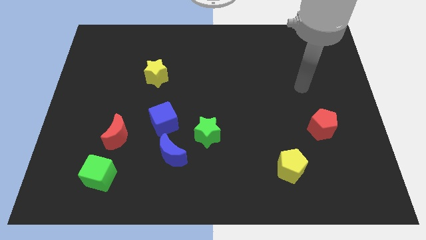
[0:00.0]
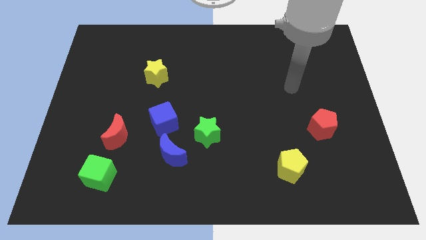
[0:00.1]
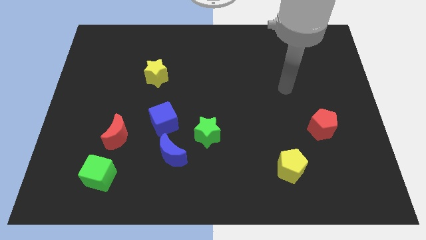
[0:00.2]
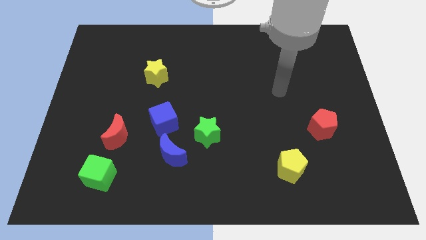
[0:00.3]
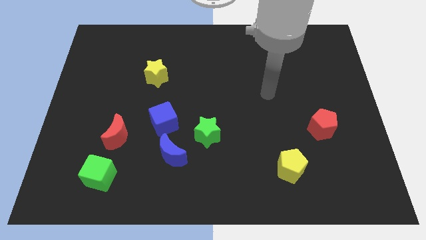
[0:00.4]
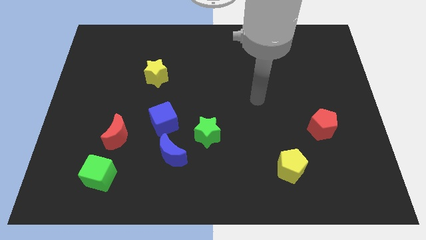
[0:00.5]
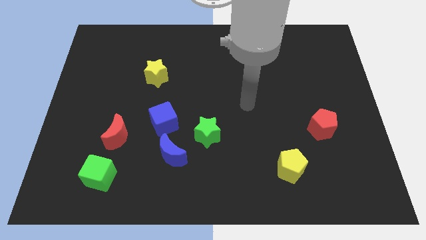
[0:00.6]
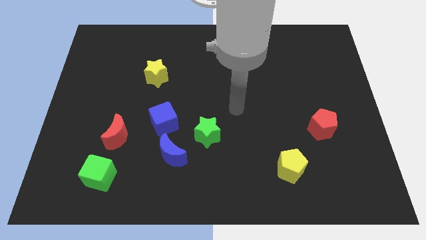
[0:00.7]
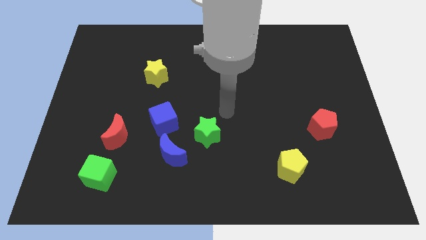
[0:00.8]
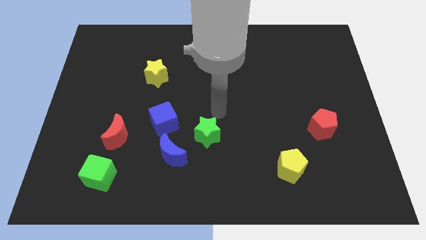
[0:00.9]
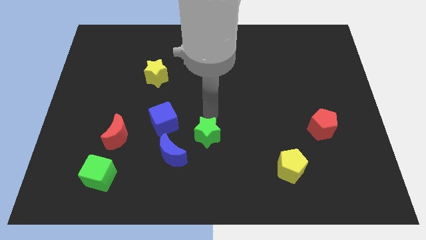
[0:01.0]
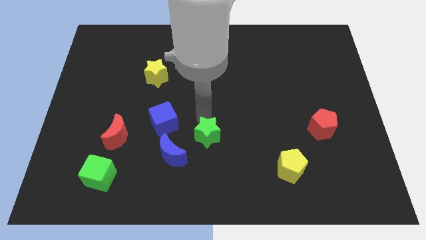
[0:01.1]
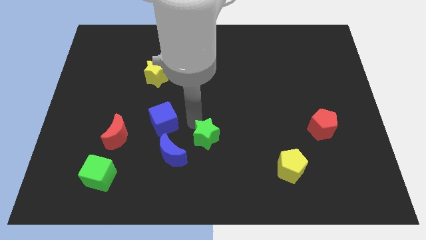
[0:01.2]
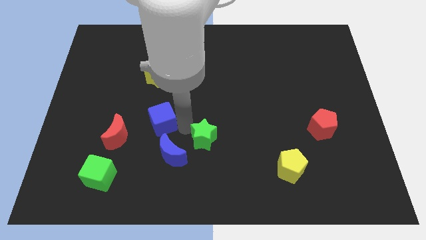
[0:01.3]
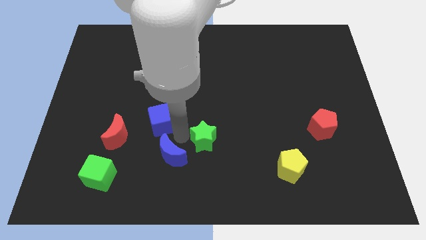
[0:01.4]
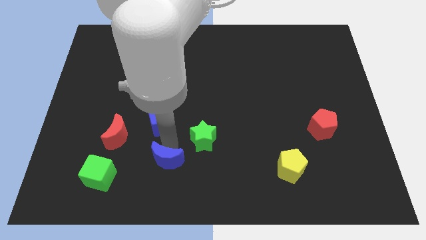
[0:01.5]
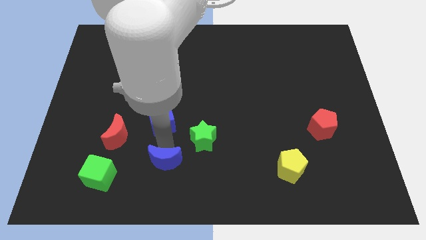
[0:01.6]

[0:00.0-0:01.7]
pull the blue cube apart from the blue moon

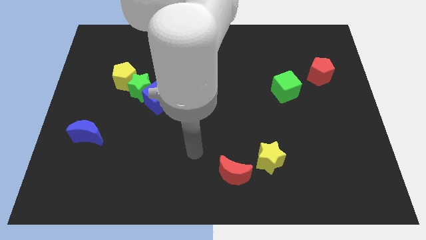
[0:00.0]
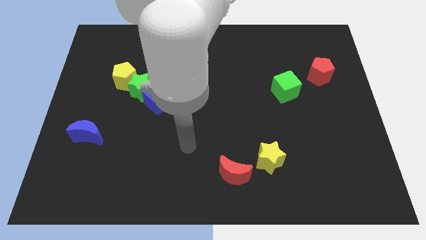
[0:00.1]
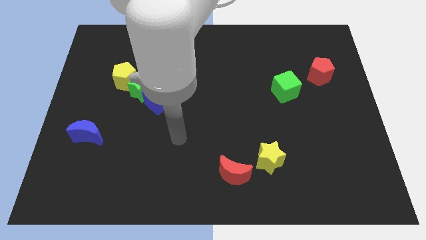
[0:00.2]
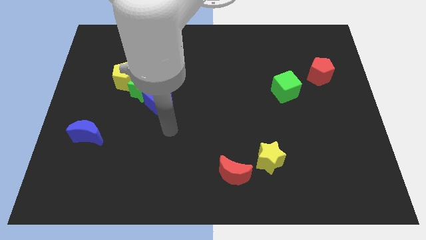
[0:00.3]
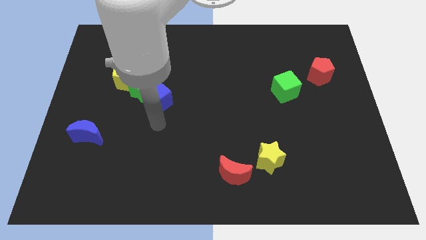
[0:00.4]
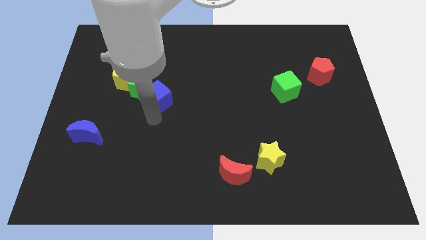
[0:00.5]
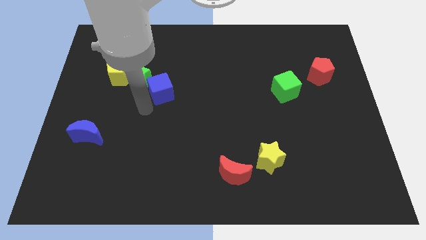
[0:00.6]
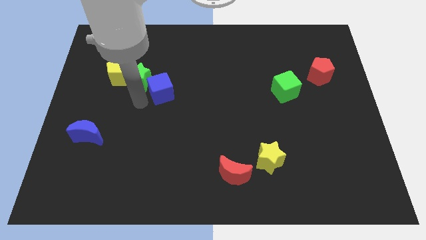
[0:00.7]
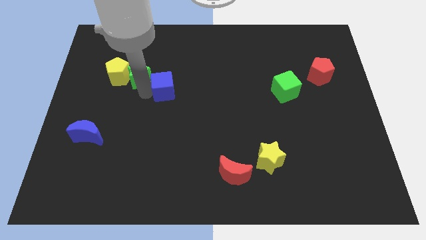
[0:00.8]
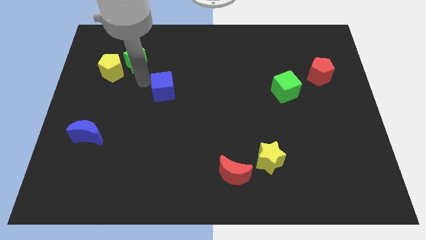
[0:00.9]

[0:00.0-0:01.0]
pull the blue cube apart from the green star

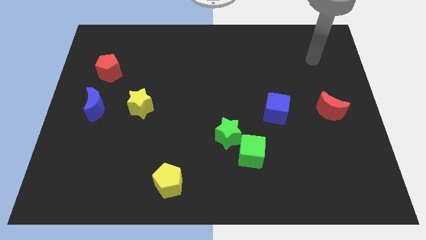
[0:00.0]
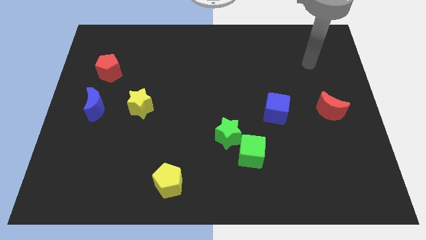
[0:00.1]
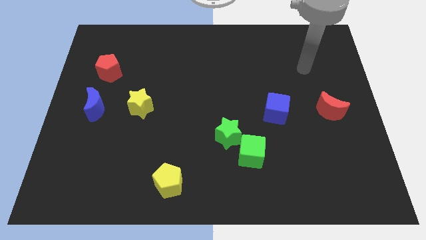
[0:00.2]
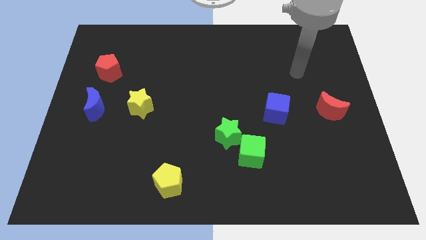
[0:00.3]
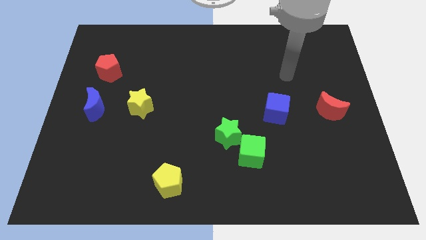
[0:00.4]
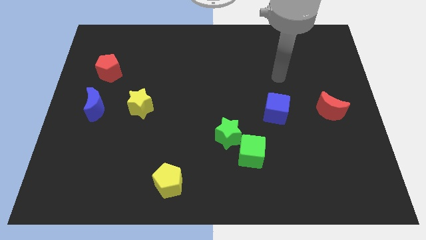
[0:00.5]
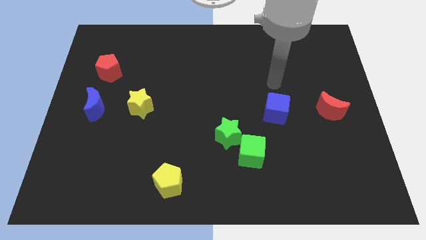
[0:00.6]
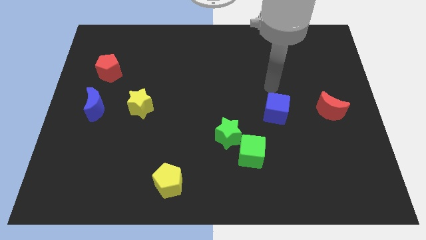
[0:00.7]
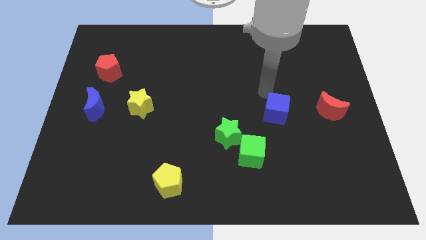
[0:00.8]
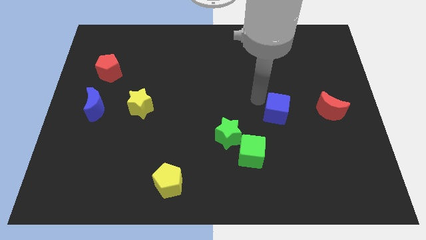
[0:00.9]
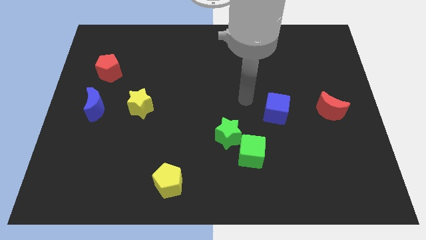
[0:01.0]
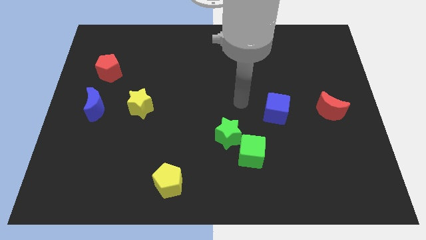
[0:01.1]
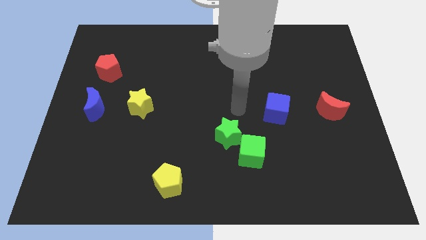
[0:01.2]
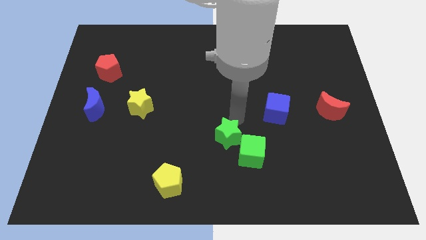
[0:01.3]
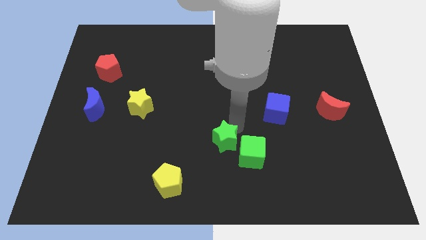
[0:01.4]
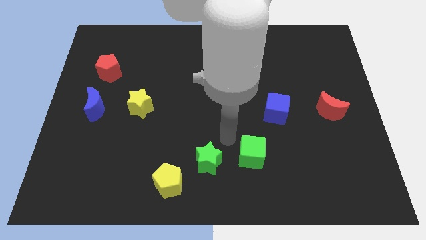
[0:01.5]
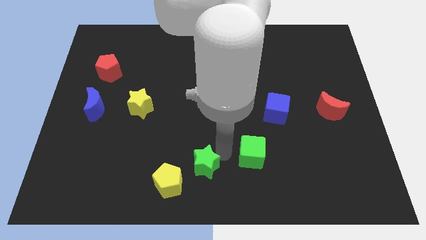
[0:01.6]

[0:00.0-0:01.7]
pull the green cube apart from the green star

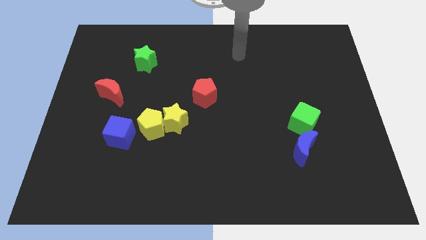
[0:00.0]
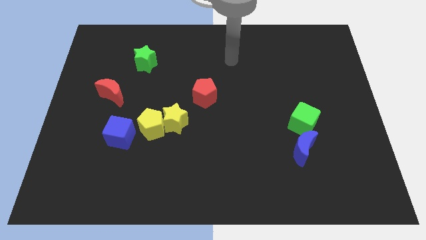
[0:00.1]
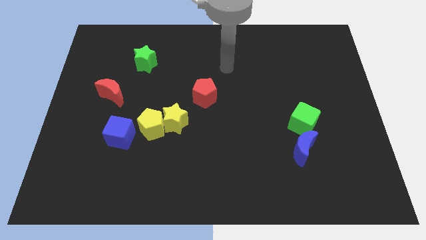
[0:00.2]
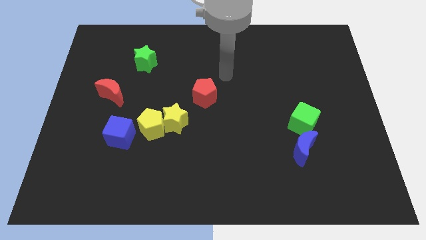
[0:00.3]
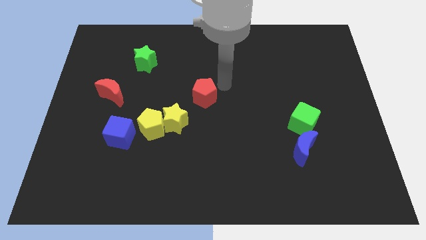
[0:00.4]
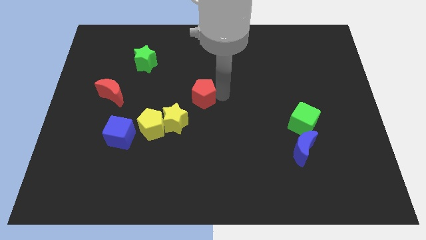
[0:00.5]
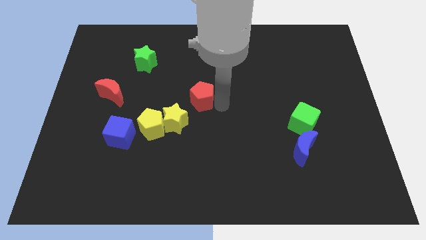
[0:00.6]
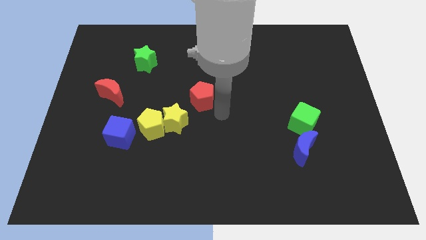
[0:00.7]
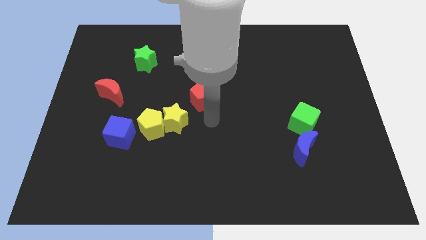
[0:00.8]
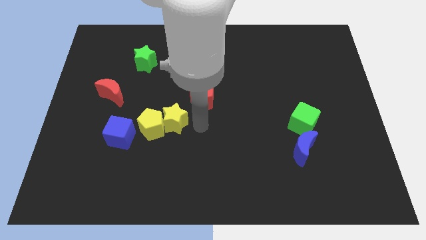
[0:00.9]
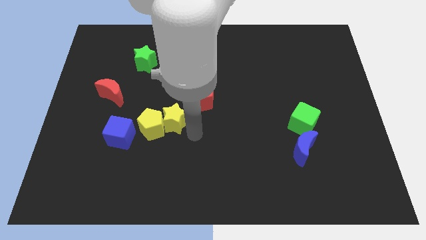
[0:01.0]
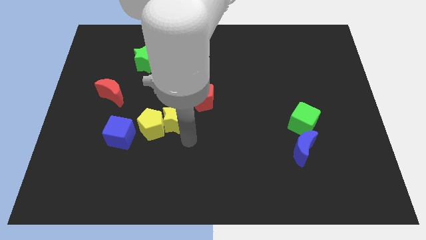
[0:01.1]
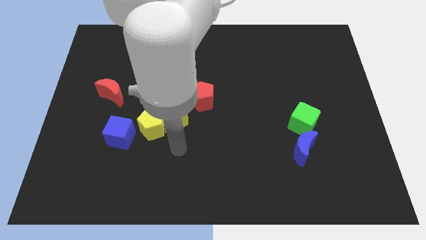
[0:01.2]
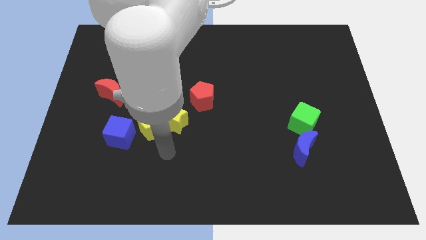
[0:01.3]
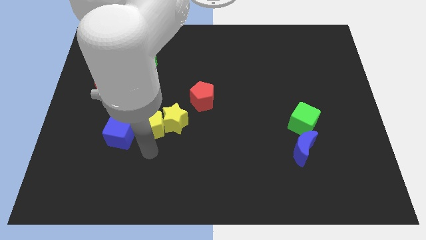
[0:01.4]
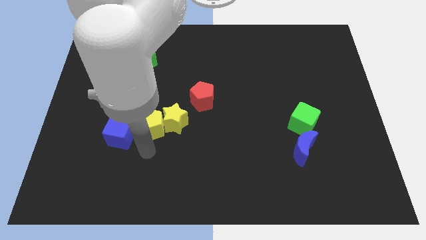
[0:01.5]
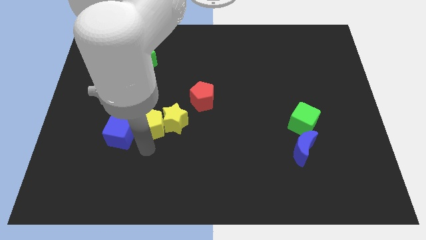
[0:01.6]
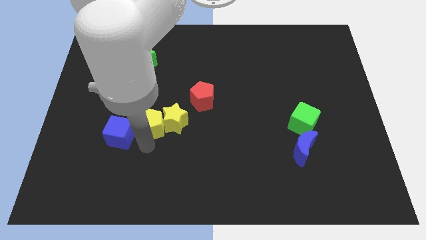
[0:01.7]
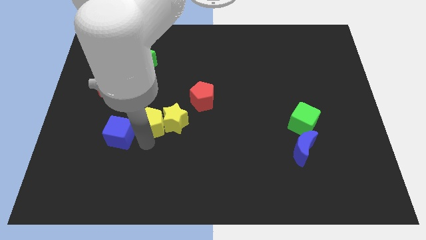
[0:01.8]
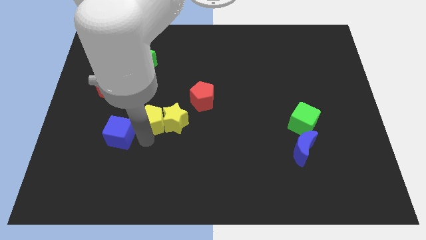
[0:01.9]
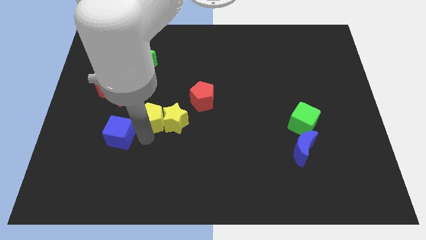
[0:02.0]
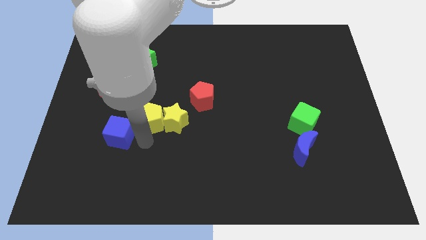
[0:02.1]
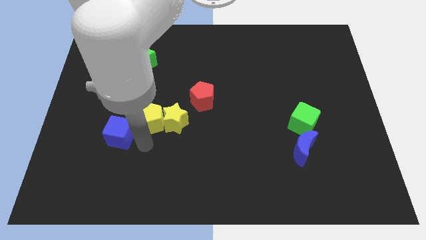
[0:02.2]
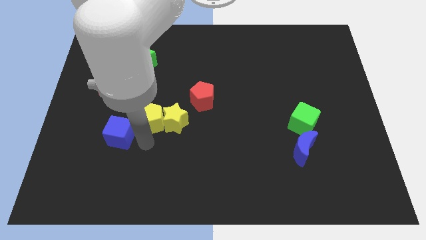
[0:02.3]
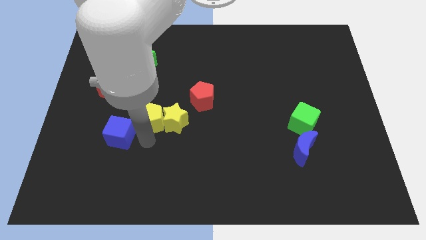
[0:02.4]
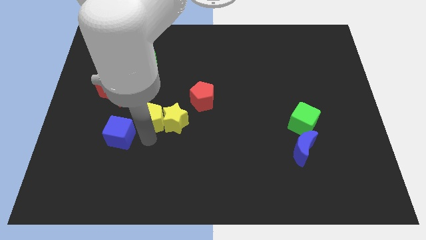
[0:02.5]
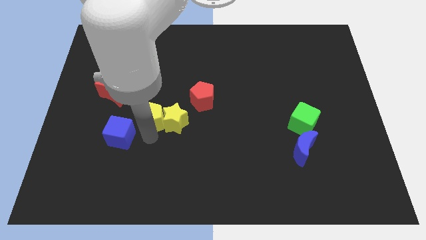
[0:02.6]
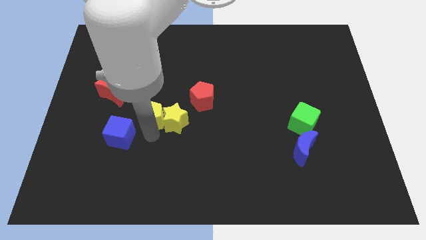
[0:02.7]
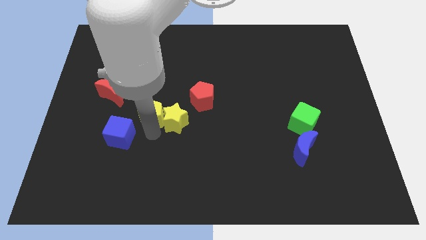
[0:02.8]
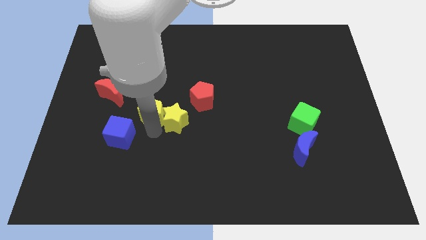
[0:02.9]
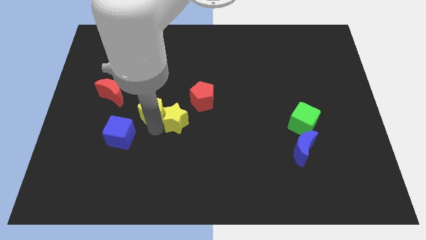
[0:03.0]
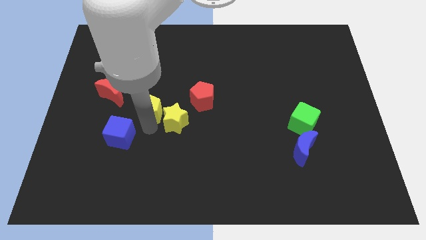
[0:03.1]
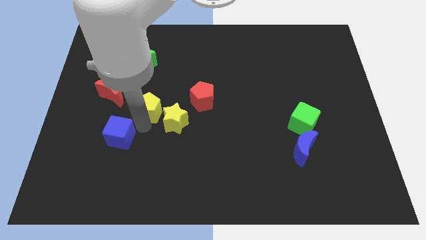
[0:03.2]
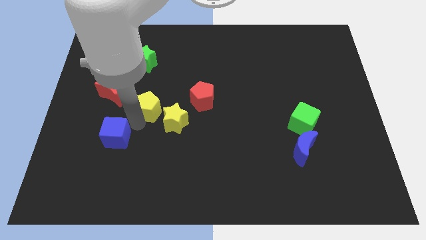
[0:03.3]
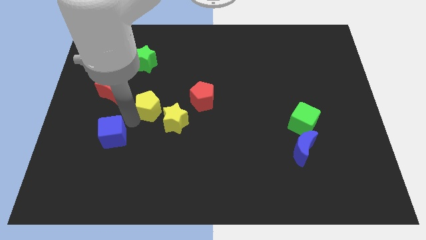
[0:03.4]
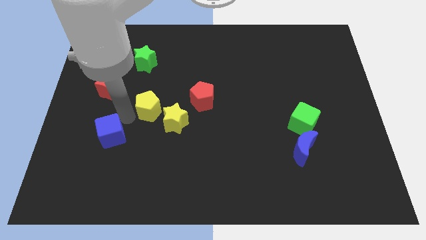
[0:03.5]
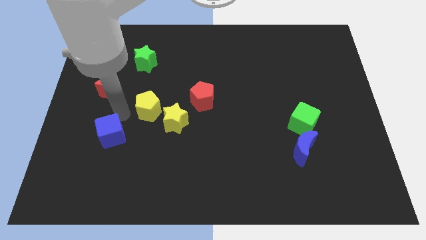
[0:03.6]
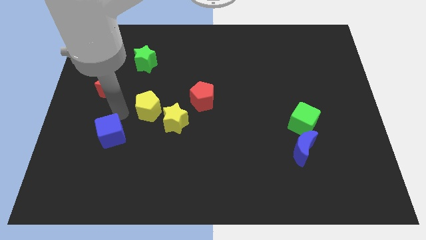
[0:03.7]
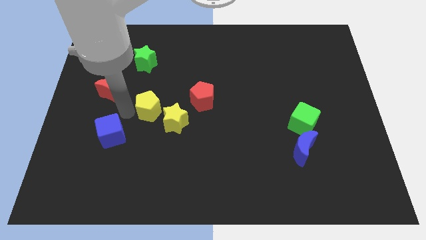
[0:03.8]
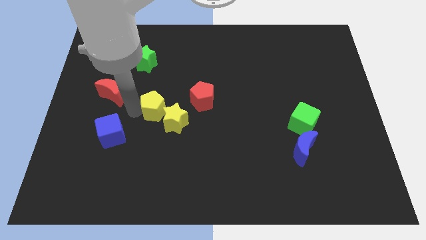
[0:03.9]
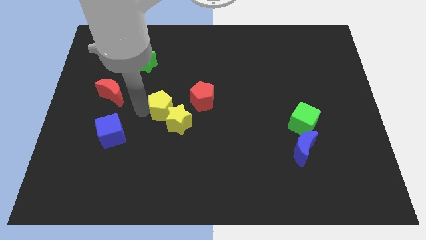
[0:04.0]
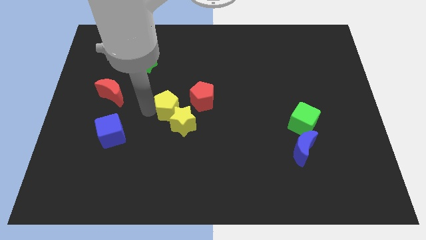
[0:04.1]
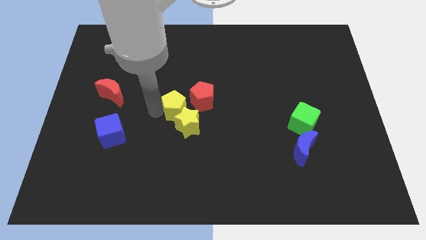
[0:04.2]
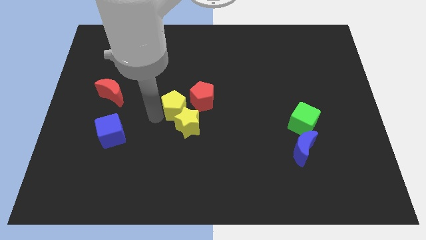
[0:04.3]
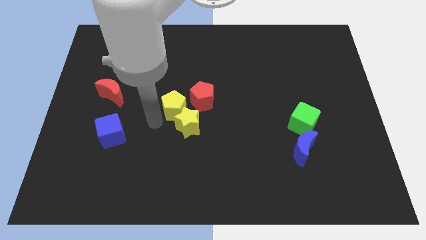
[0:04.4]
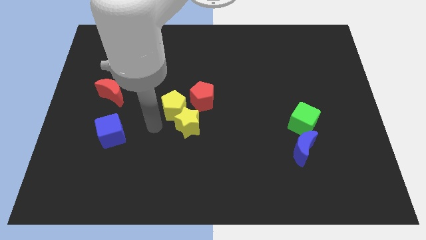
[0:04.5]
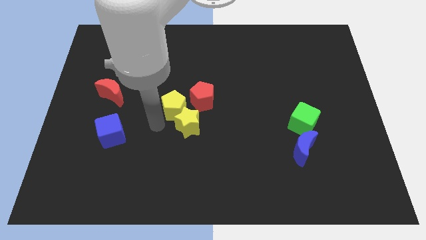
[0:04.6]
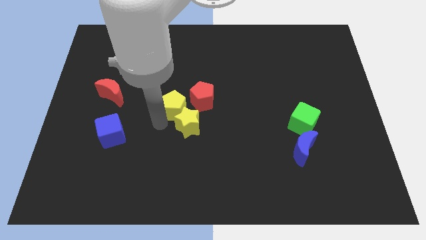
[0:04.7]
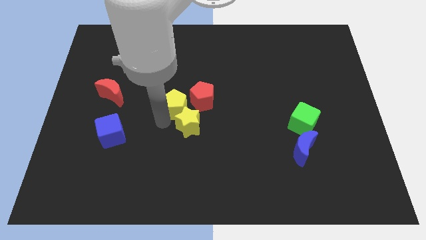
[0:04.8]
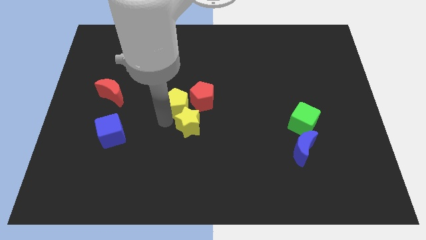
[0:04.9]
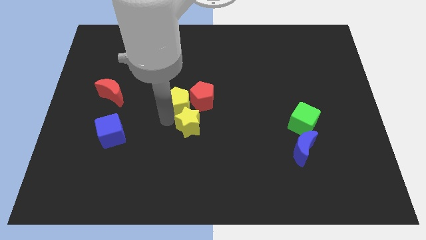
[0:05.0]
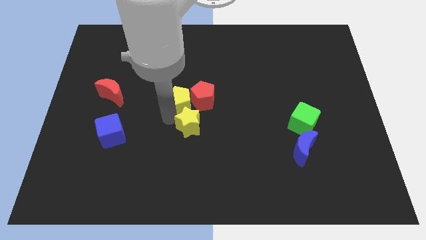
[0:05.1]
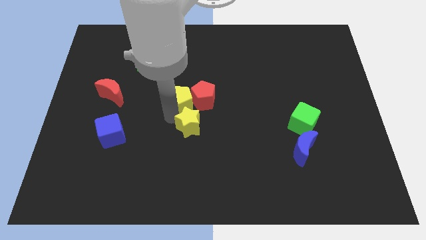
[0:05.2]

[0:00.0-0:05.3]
move the yellow pentagon away from the yellow star and blue cube
